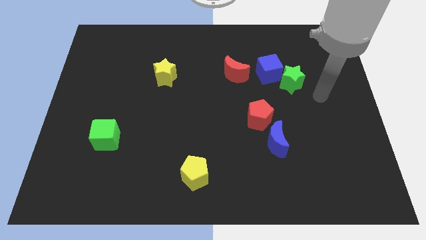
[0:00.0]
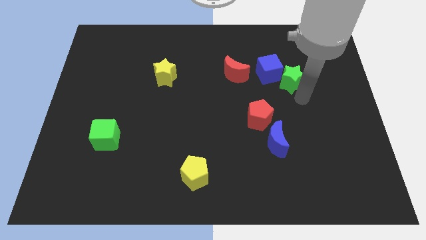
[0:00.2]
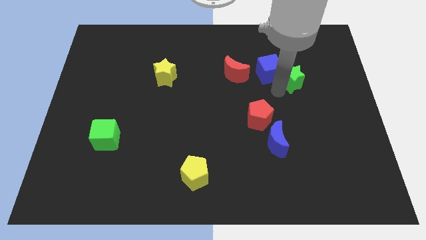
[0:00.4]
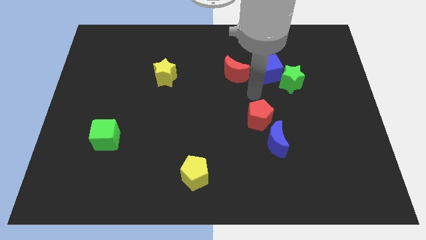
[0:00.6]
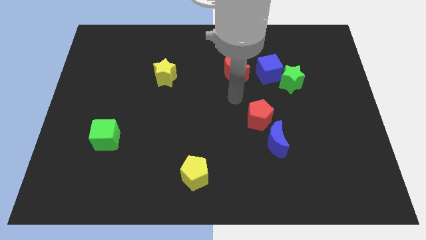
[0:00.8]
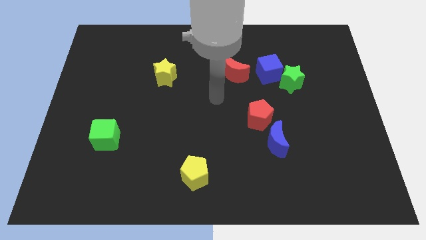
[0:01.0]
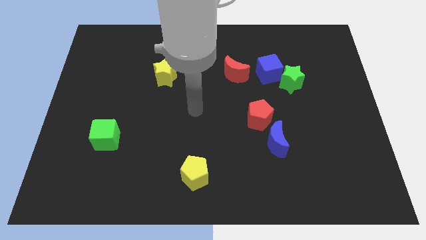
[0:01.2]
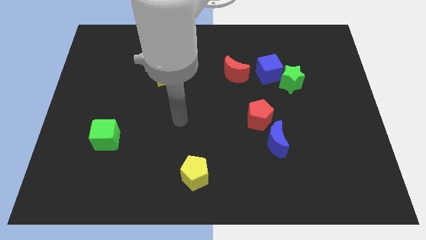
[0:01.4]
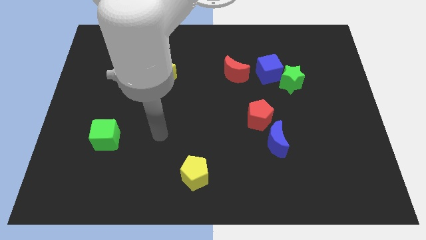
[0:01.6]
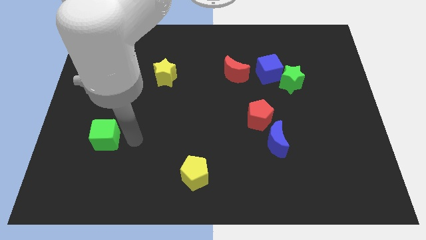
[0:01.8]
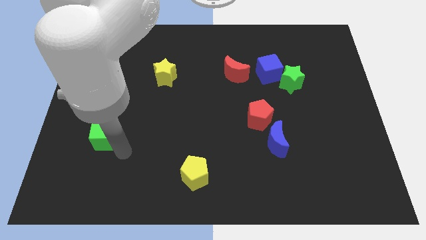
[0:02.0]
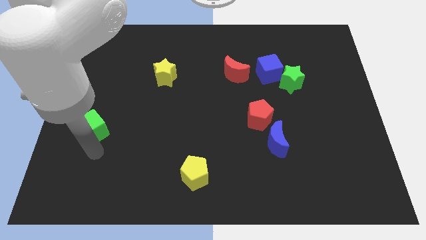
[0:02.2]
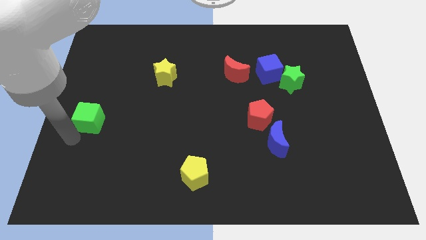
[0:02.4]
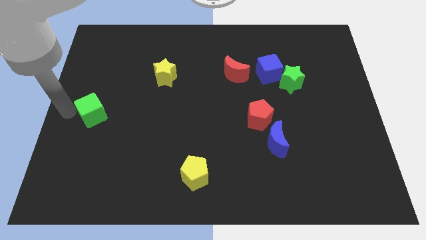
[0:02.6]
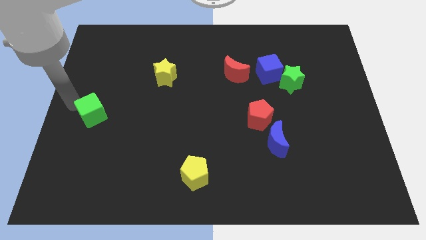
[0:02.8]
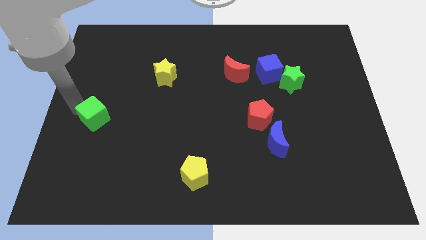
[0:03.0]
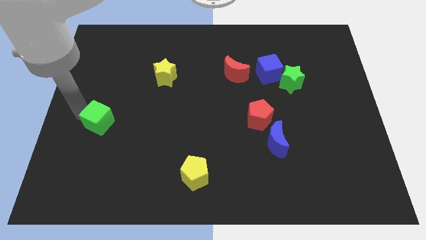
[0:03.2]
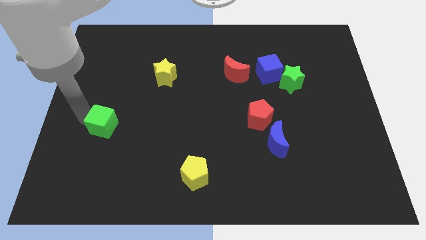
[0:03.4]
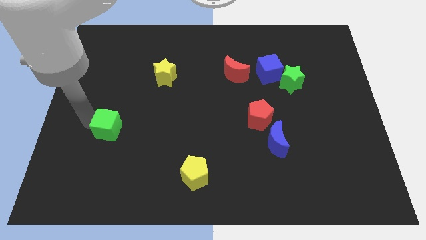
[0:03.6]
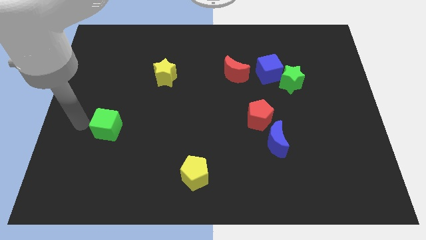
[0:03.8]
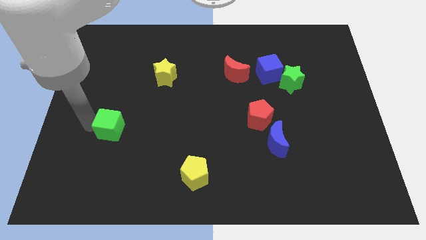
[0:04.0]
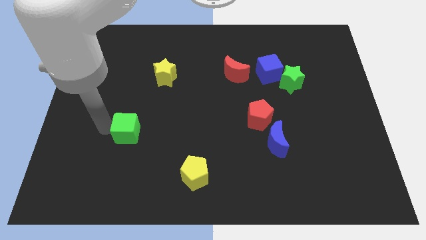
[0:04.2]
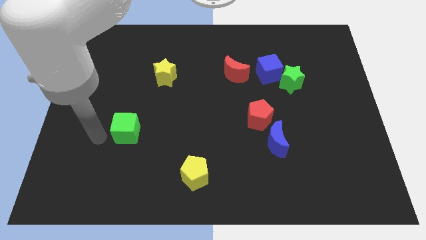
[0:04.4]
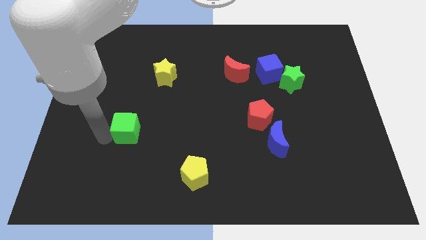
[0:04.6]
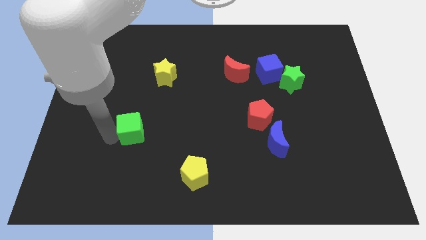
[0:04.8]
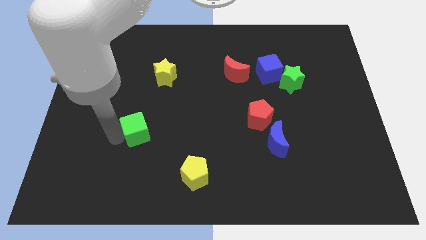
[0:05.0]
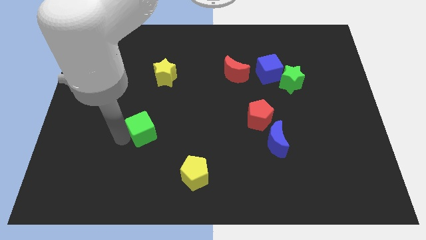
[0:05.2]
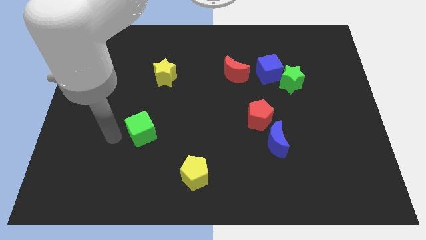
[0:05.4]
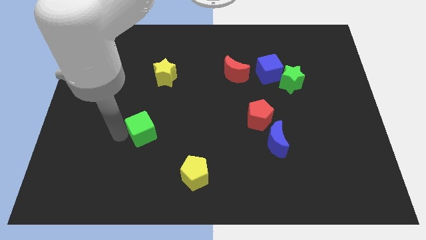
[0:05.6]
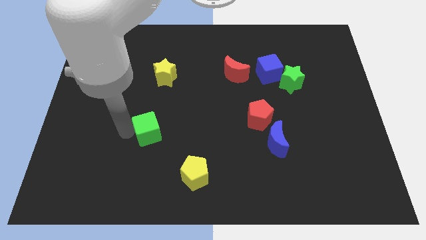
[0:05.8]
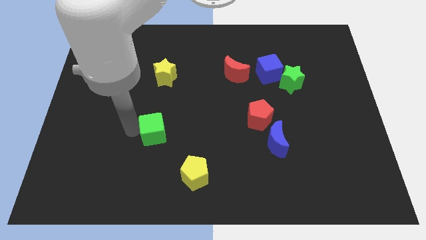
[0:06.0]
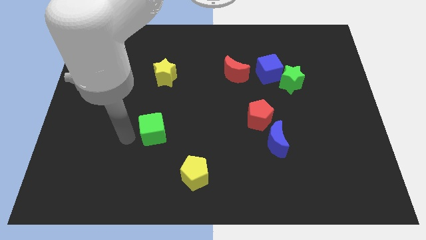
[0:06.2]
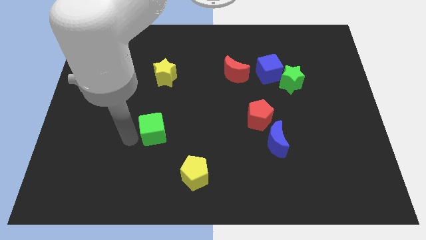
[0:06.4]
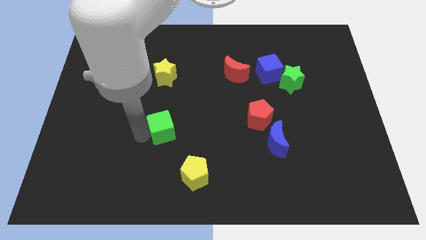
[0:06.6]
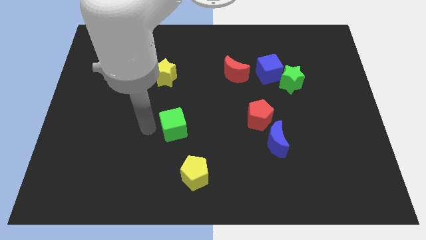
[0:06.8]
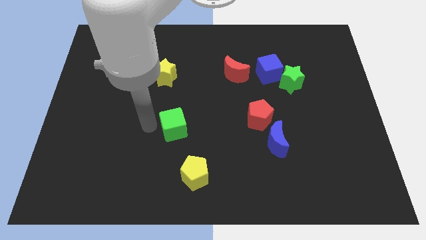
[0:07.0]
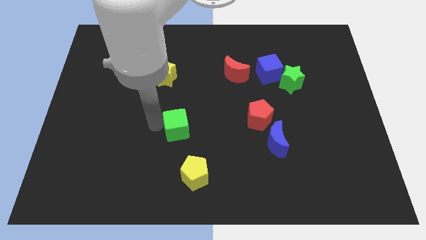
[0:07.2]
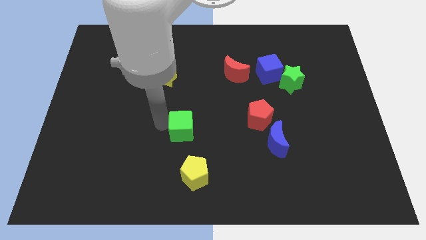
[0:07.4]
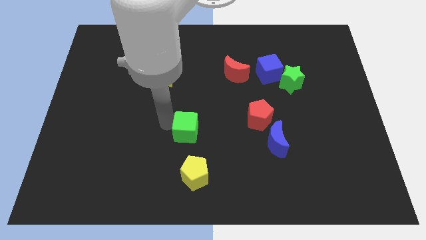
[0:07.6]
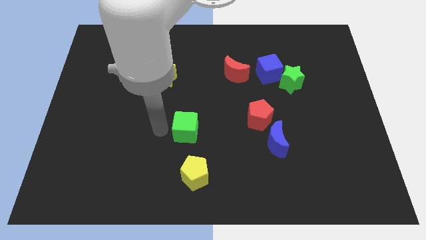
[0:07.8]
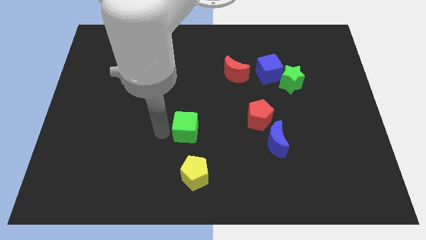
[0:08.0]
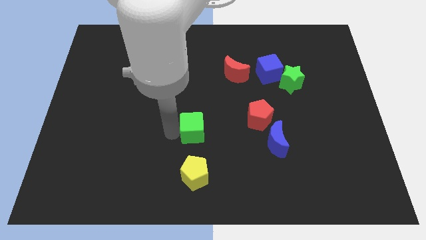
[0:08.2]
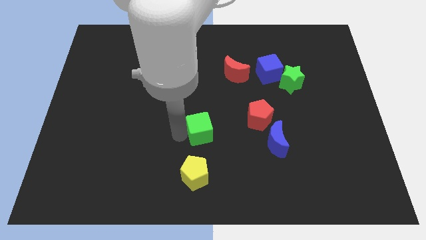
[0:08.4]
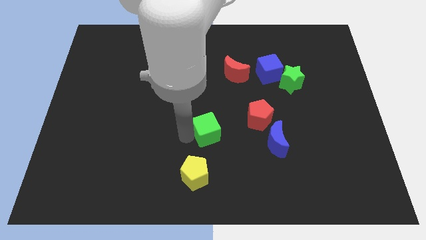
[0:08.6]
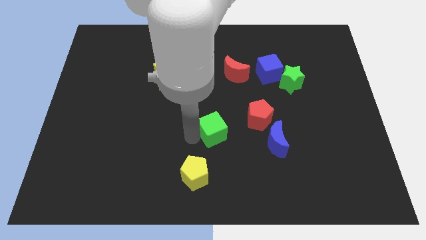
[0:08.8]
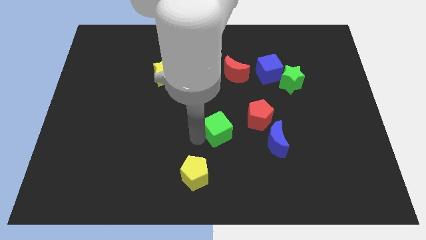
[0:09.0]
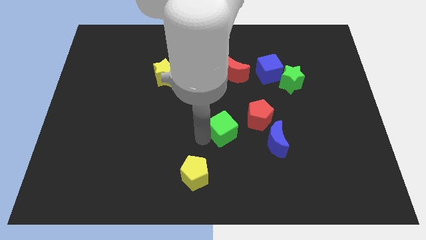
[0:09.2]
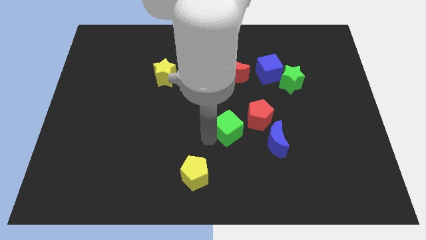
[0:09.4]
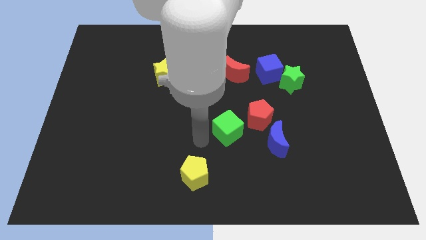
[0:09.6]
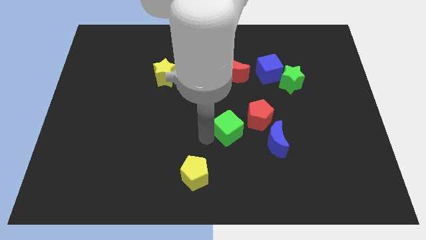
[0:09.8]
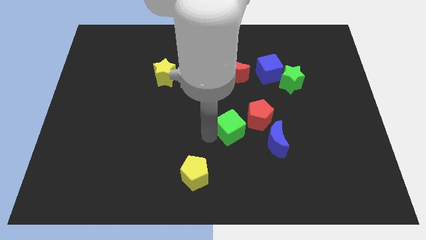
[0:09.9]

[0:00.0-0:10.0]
move the green cube to the top left of the blue moon

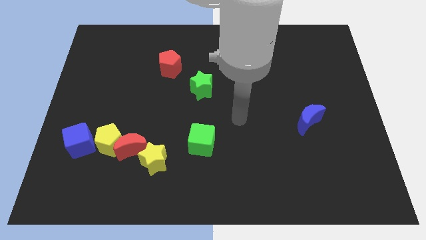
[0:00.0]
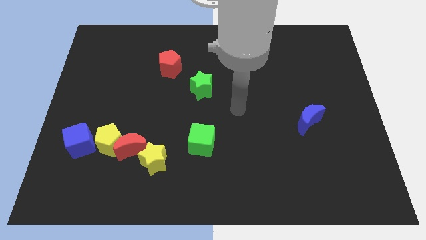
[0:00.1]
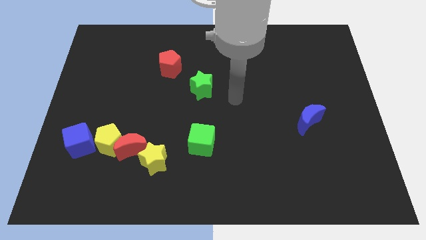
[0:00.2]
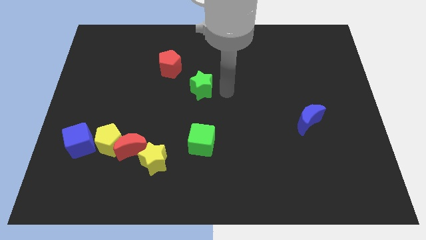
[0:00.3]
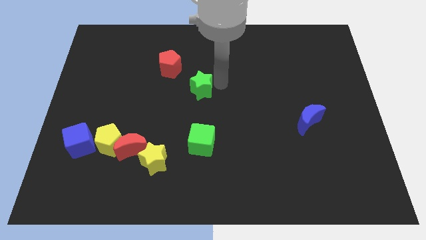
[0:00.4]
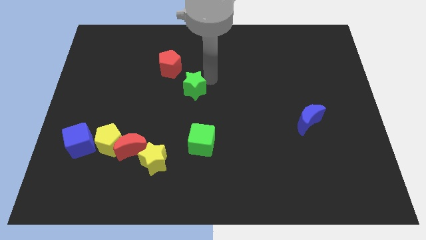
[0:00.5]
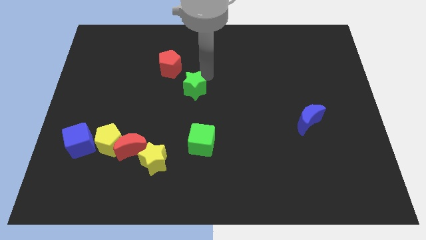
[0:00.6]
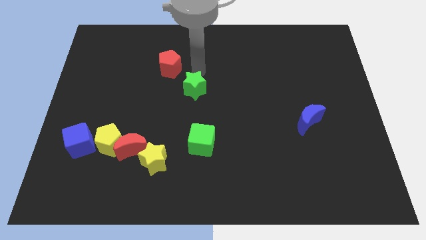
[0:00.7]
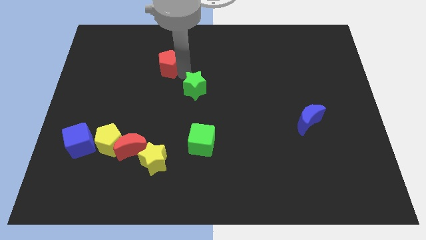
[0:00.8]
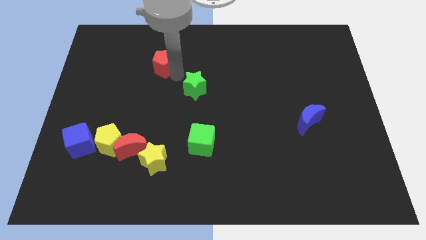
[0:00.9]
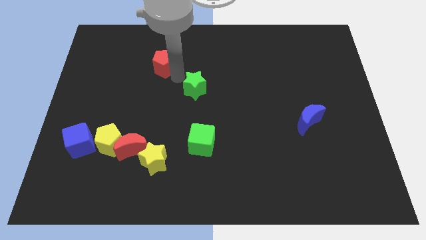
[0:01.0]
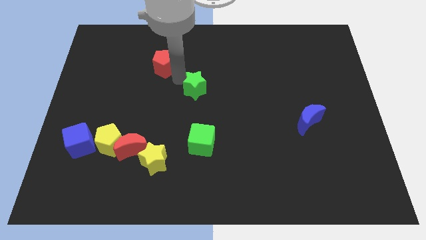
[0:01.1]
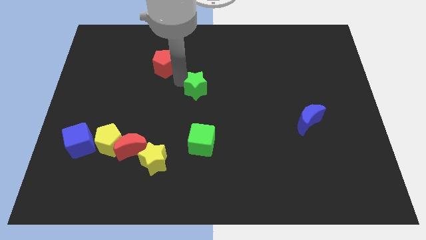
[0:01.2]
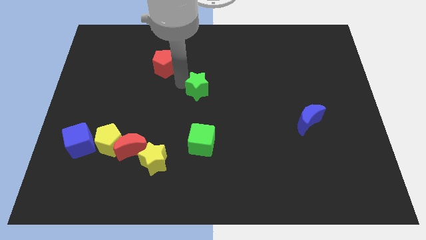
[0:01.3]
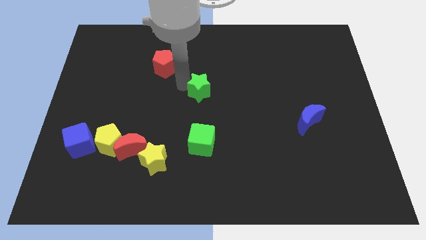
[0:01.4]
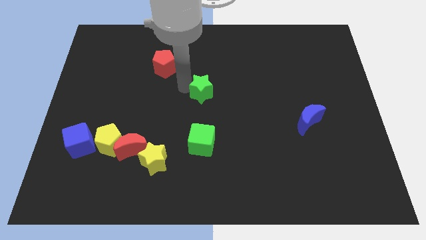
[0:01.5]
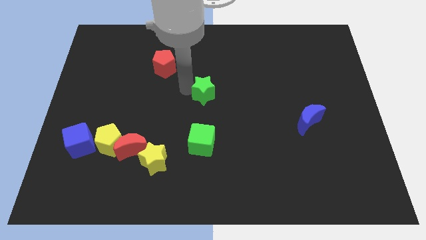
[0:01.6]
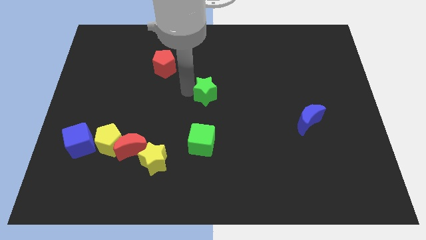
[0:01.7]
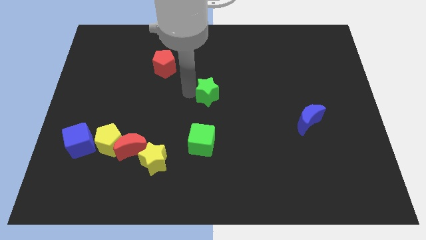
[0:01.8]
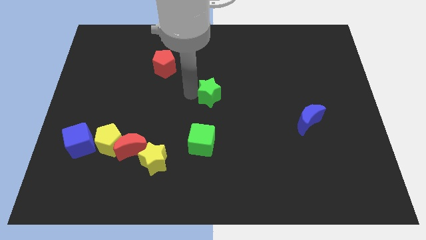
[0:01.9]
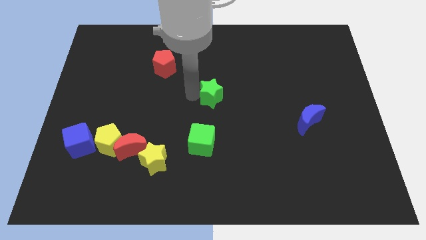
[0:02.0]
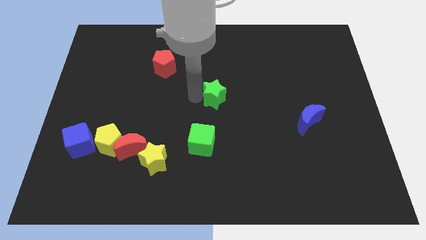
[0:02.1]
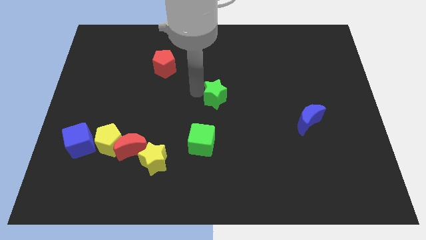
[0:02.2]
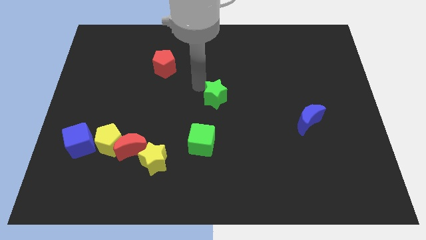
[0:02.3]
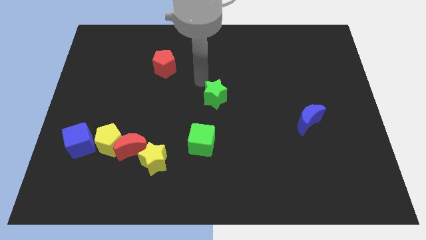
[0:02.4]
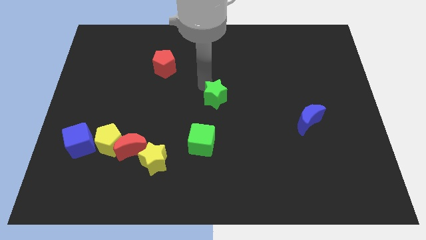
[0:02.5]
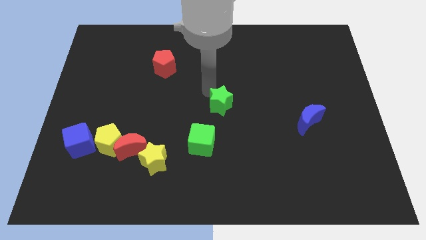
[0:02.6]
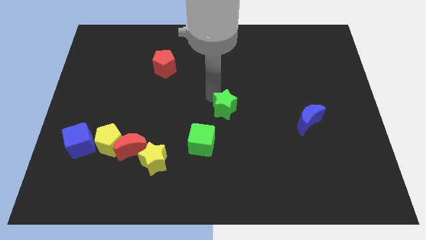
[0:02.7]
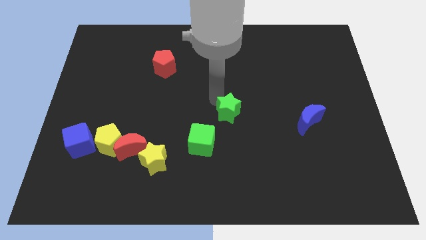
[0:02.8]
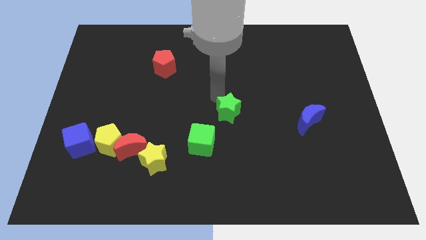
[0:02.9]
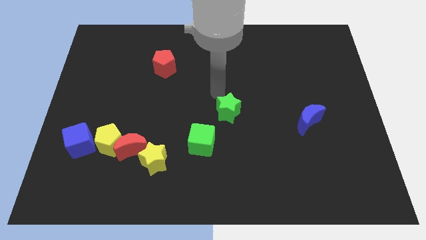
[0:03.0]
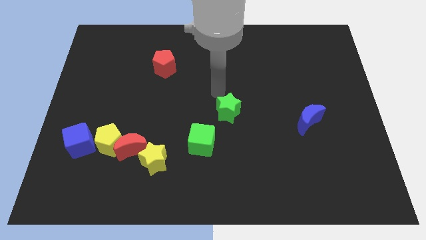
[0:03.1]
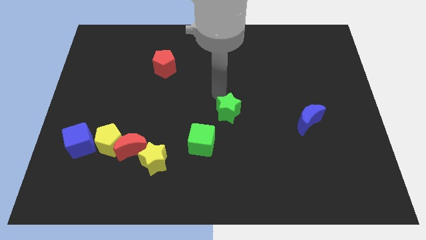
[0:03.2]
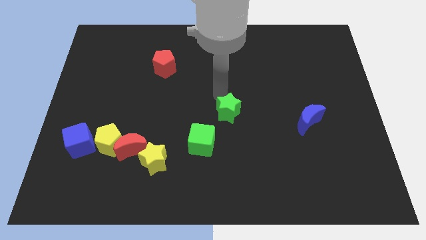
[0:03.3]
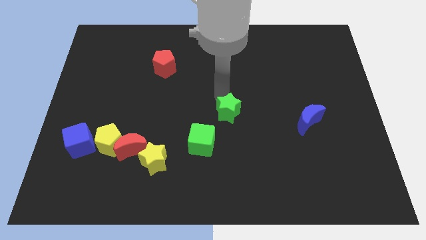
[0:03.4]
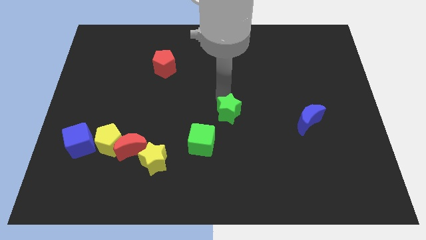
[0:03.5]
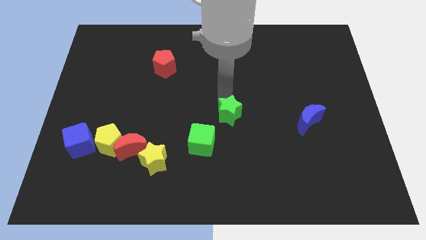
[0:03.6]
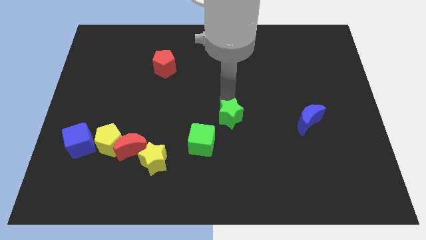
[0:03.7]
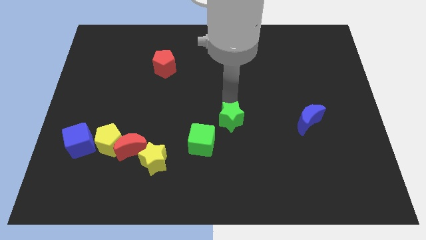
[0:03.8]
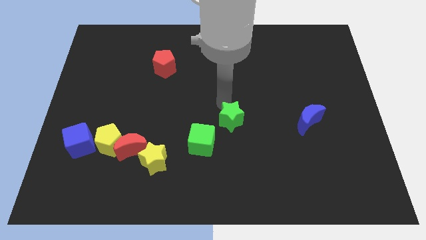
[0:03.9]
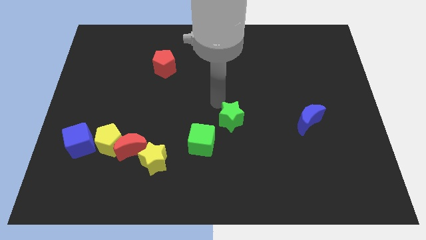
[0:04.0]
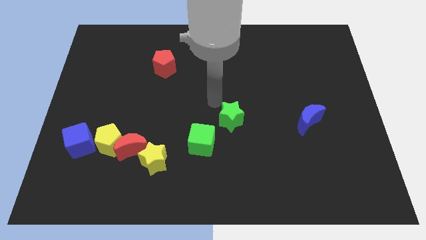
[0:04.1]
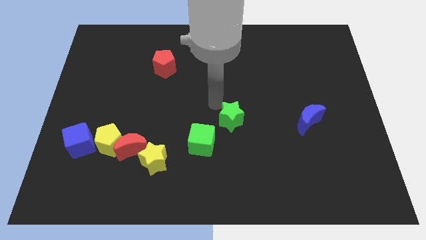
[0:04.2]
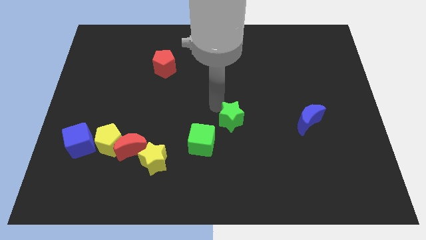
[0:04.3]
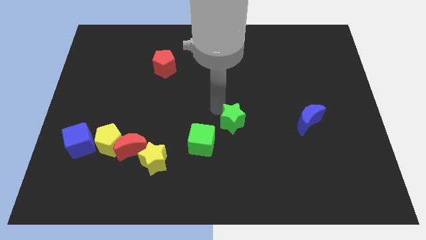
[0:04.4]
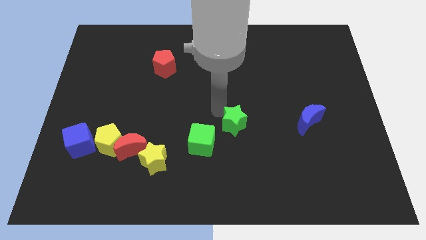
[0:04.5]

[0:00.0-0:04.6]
slide the green star right of the green cube
